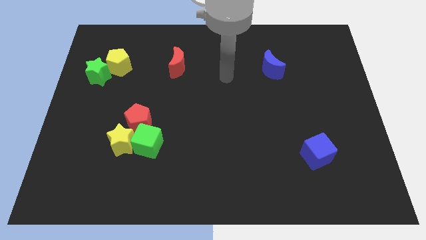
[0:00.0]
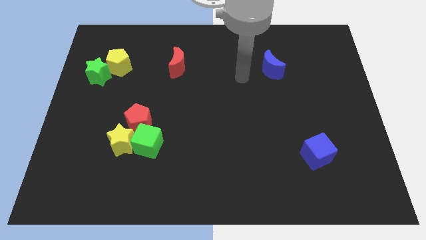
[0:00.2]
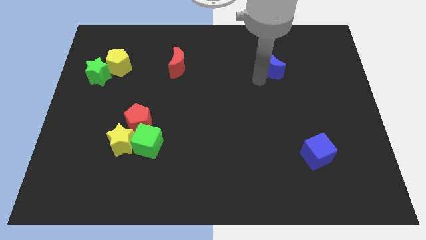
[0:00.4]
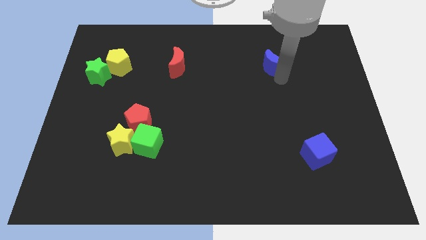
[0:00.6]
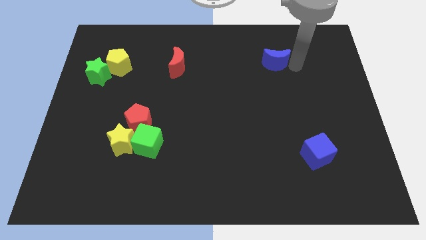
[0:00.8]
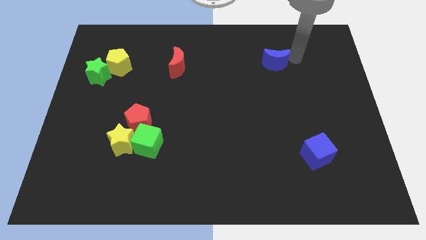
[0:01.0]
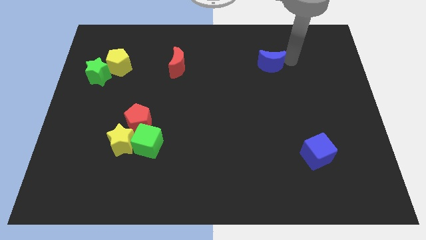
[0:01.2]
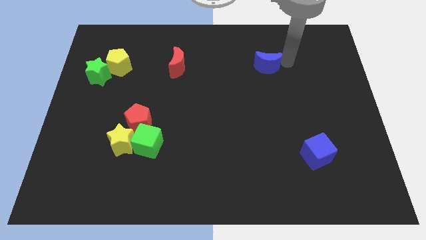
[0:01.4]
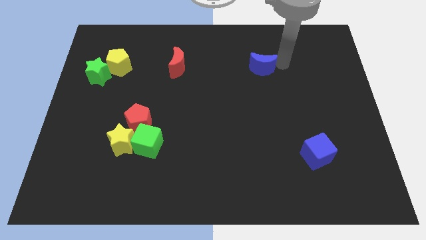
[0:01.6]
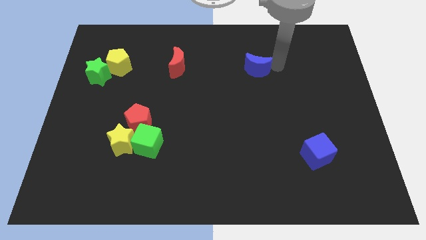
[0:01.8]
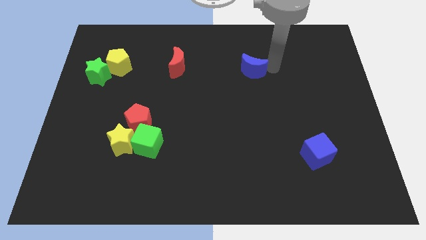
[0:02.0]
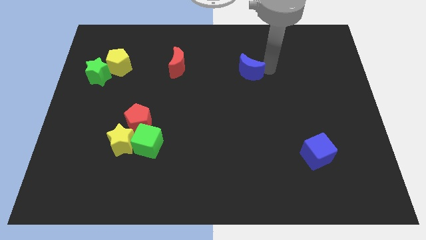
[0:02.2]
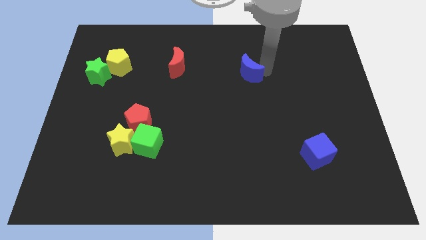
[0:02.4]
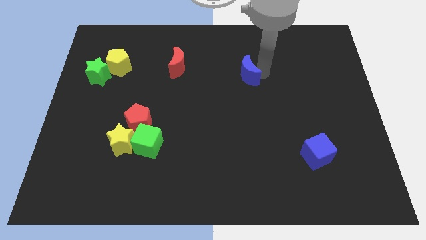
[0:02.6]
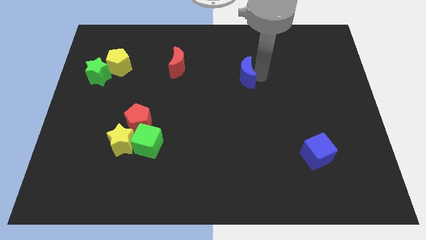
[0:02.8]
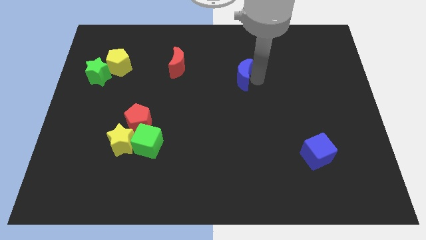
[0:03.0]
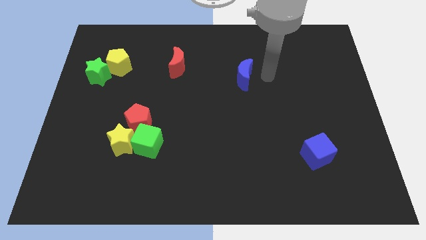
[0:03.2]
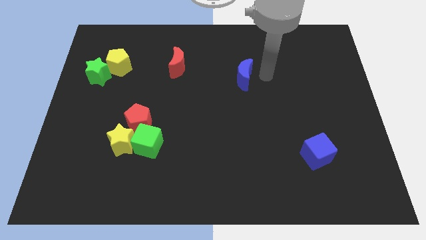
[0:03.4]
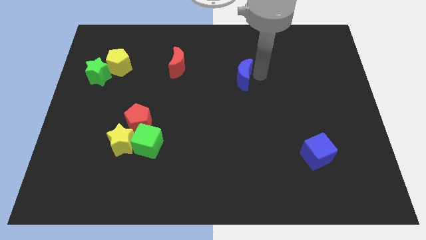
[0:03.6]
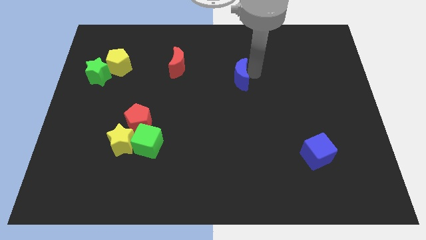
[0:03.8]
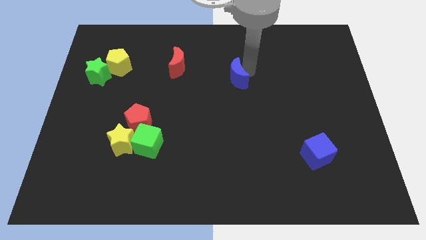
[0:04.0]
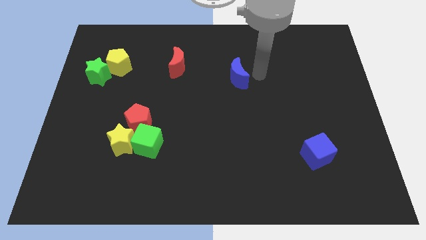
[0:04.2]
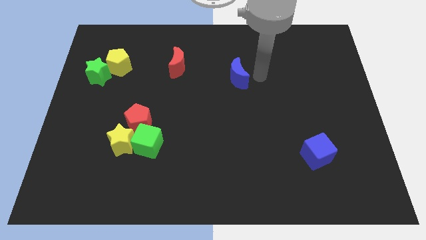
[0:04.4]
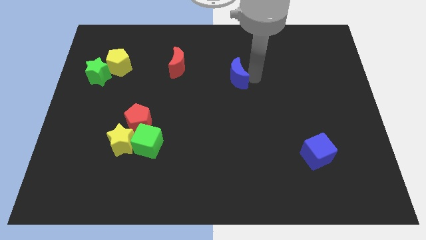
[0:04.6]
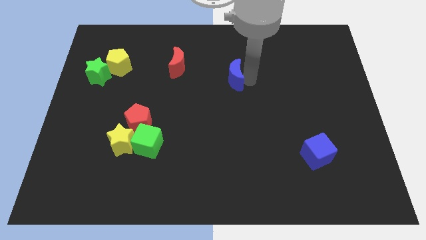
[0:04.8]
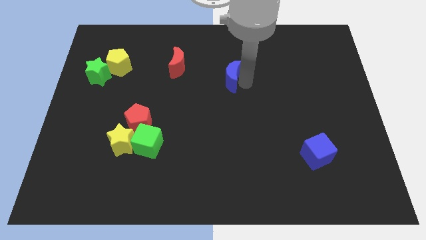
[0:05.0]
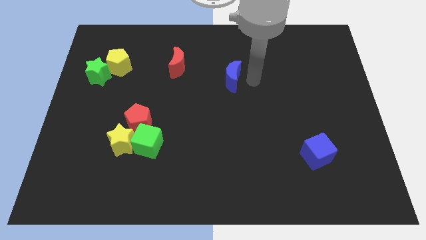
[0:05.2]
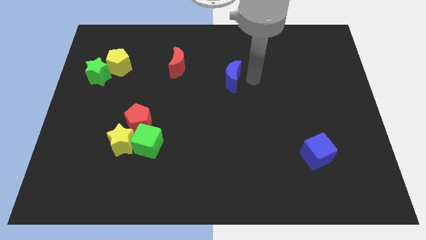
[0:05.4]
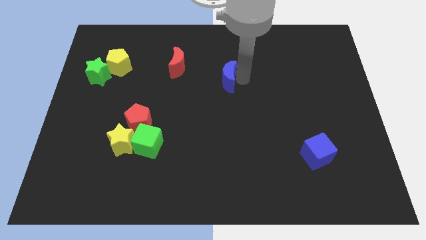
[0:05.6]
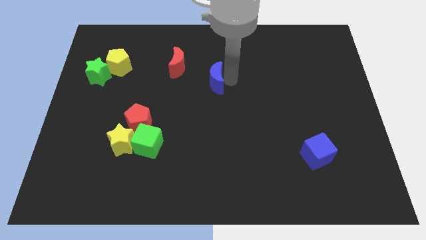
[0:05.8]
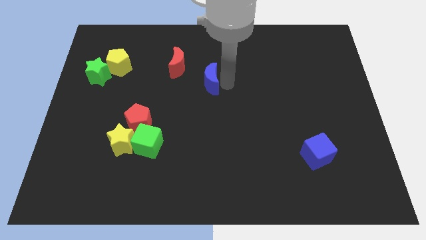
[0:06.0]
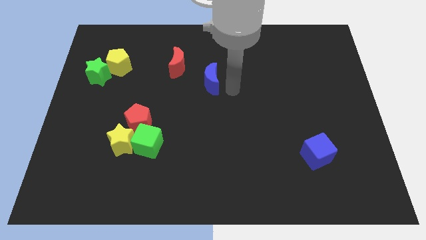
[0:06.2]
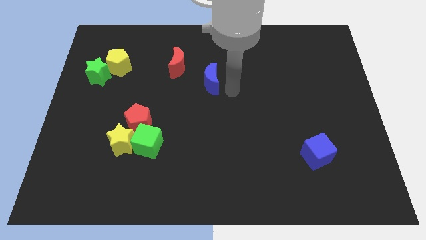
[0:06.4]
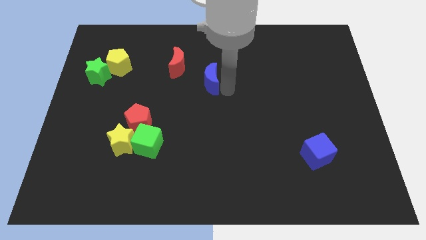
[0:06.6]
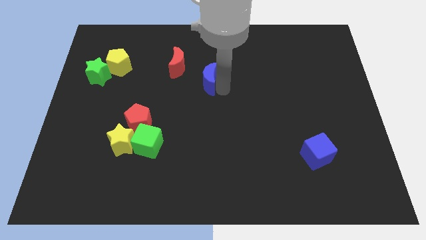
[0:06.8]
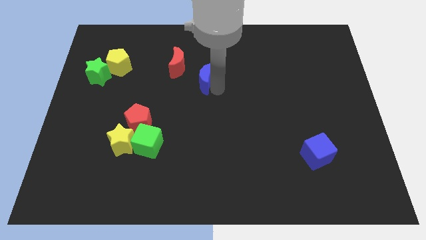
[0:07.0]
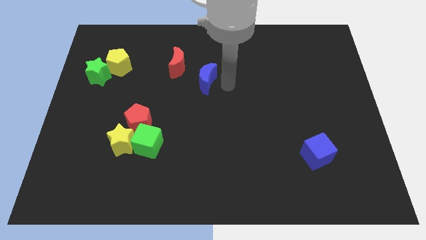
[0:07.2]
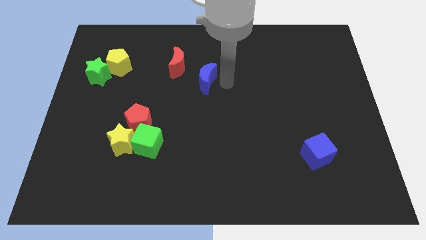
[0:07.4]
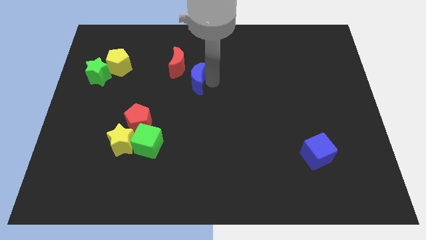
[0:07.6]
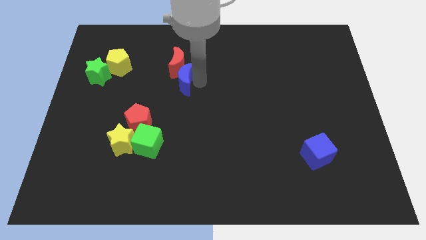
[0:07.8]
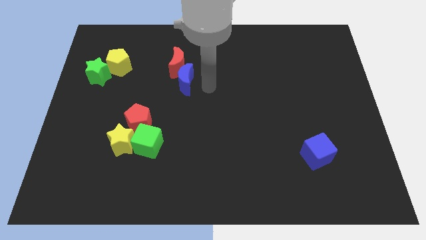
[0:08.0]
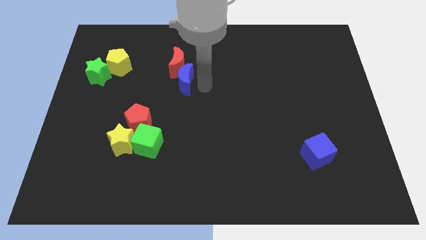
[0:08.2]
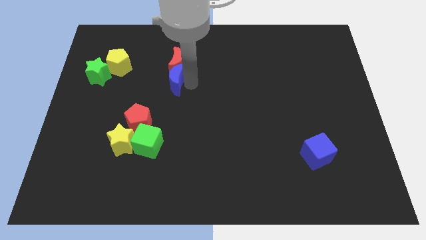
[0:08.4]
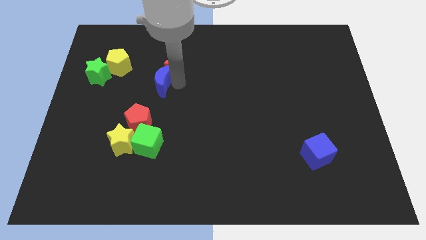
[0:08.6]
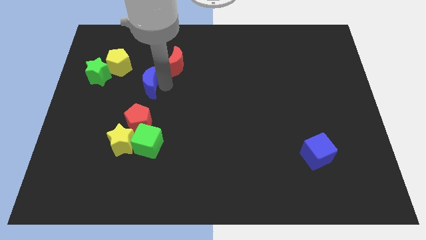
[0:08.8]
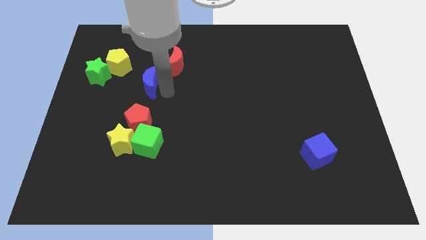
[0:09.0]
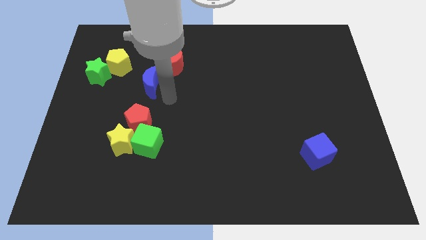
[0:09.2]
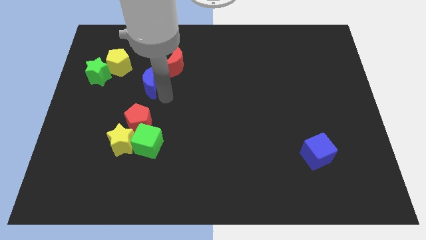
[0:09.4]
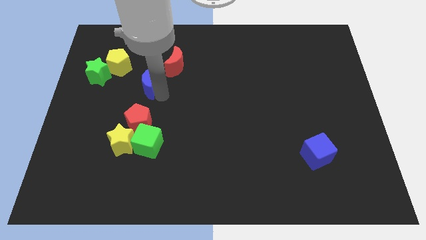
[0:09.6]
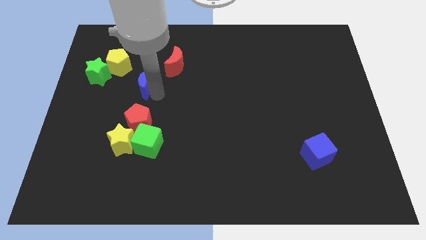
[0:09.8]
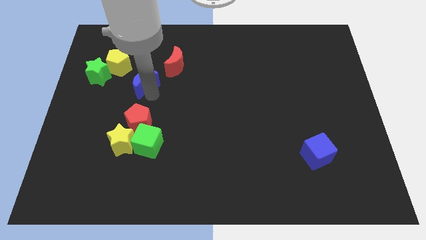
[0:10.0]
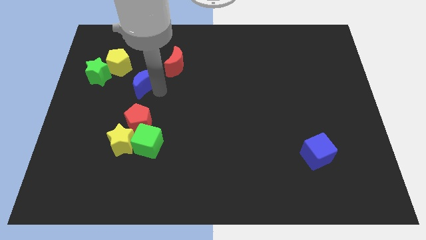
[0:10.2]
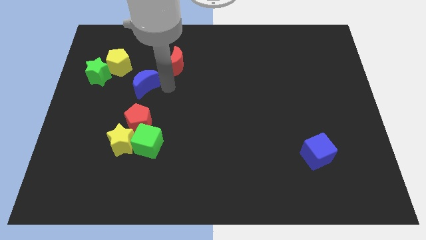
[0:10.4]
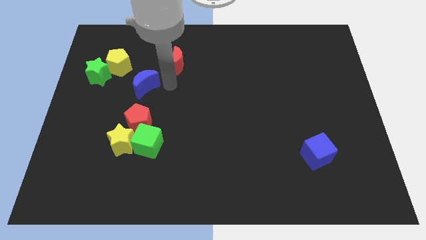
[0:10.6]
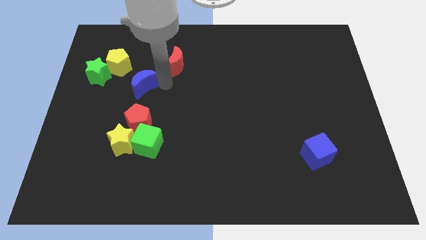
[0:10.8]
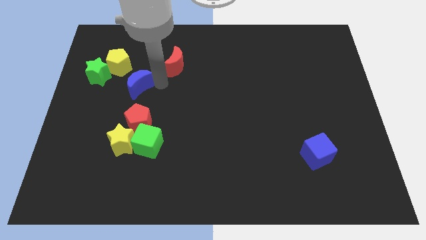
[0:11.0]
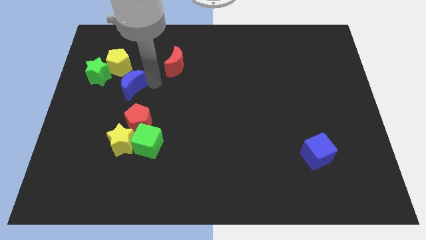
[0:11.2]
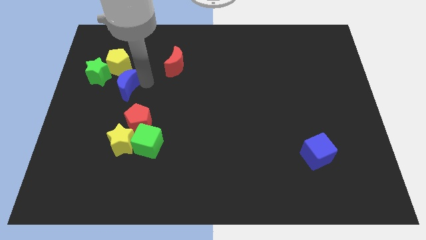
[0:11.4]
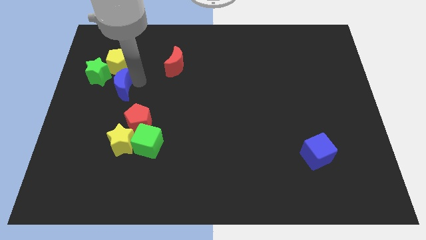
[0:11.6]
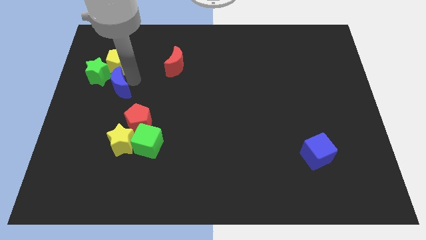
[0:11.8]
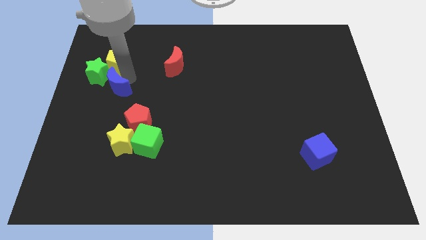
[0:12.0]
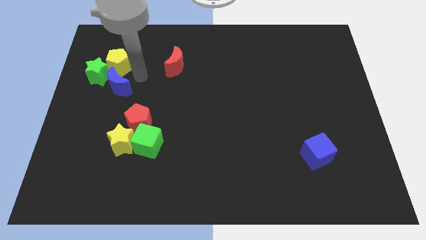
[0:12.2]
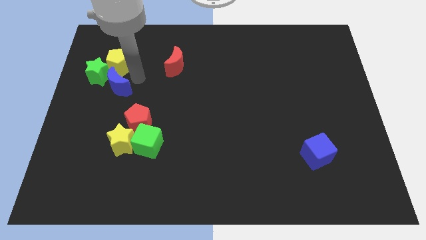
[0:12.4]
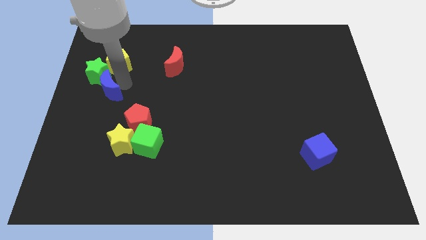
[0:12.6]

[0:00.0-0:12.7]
move the blue moon to the left side

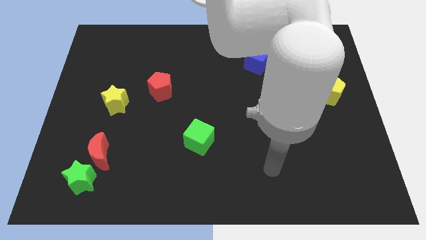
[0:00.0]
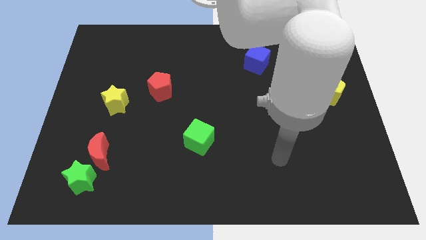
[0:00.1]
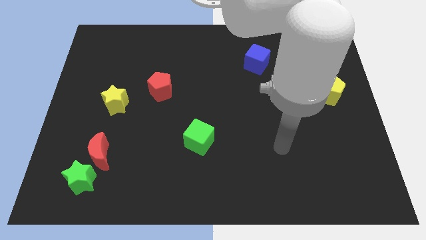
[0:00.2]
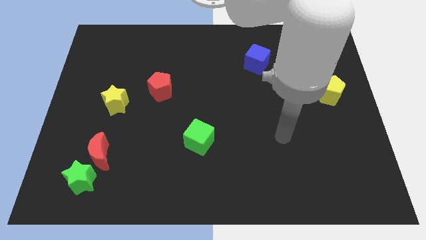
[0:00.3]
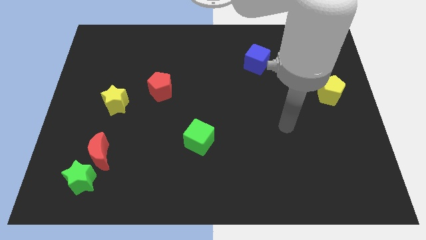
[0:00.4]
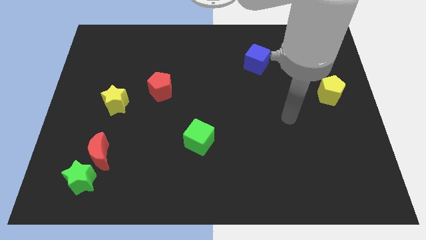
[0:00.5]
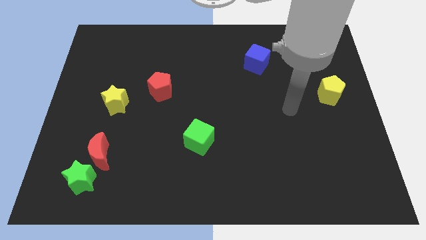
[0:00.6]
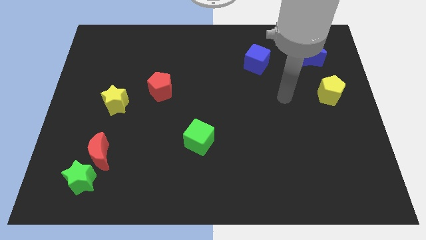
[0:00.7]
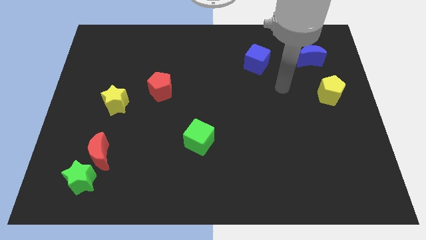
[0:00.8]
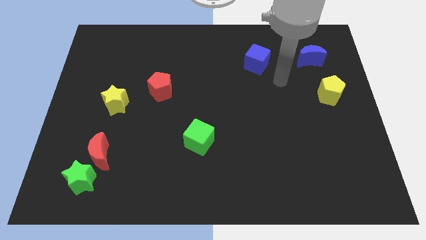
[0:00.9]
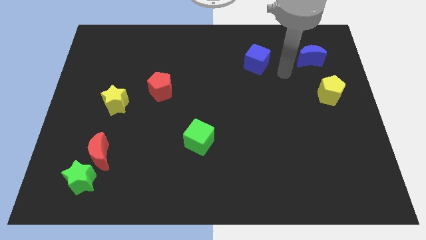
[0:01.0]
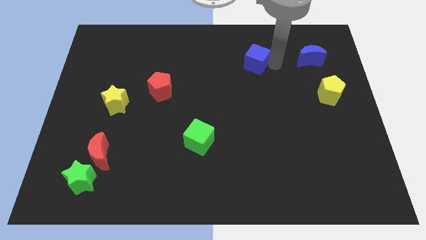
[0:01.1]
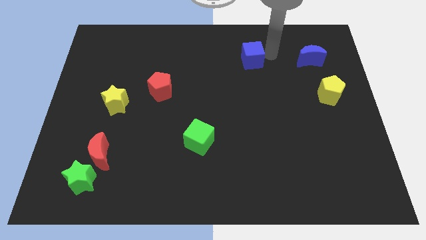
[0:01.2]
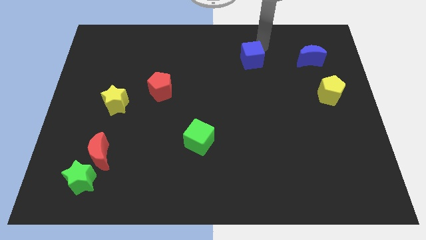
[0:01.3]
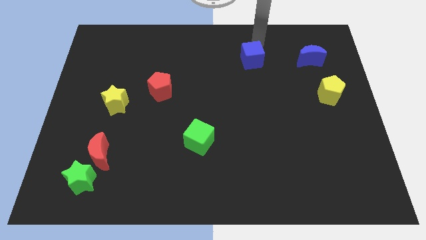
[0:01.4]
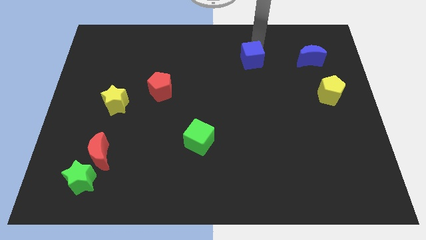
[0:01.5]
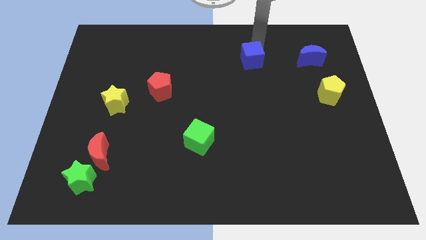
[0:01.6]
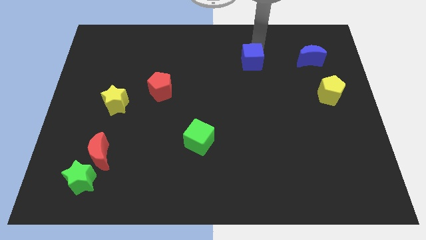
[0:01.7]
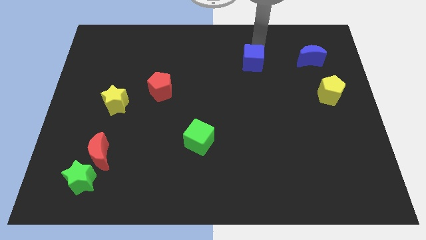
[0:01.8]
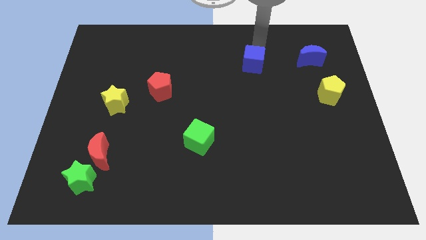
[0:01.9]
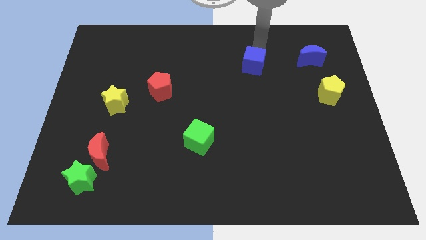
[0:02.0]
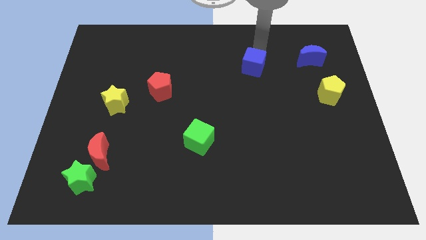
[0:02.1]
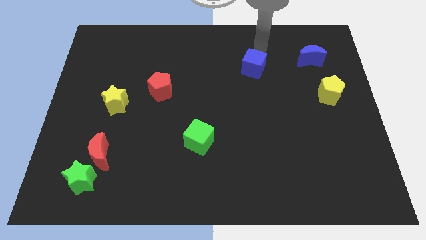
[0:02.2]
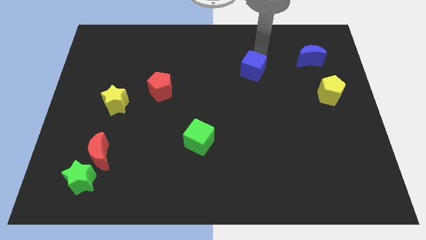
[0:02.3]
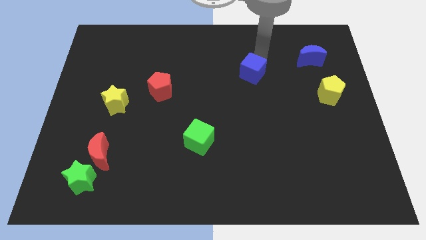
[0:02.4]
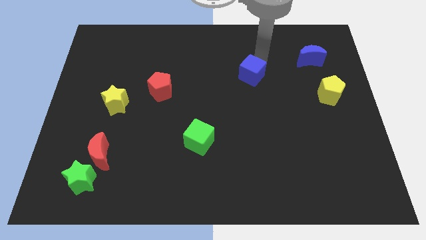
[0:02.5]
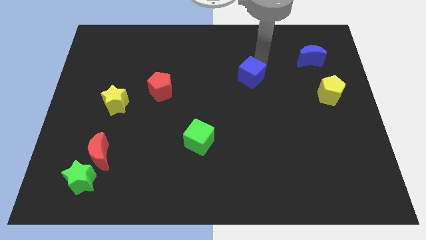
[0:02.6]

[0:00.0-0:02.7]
push the blue cube to the center
